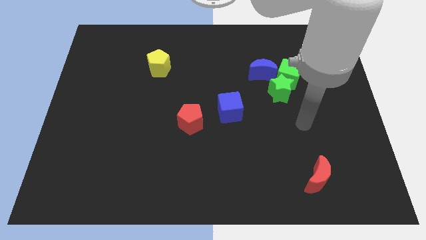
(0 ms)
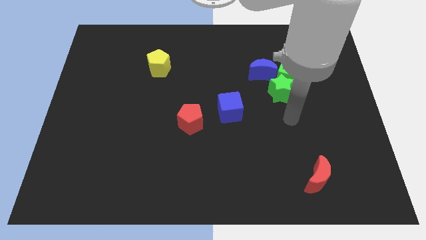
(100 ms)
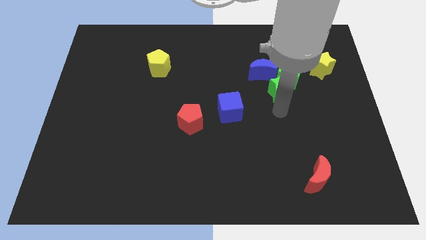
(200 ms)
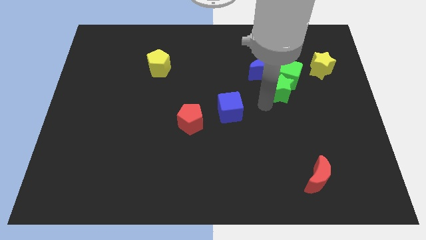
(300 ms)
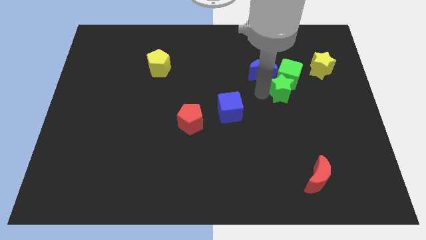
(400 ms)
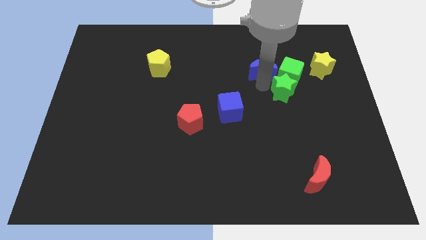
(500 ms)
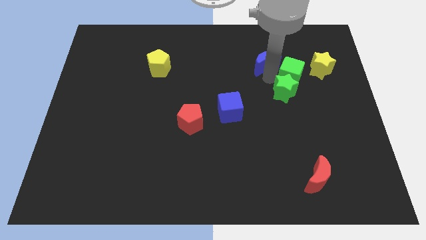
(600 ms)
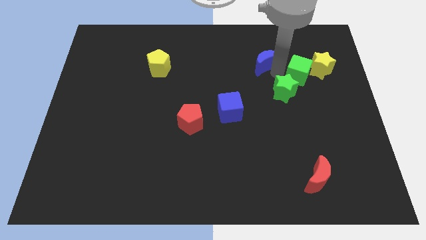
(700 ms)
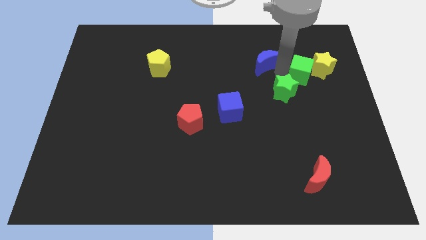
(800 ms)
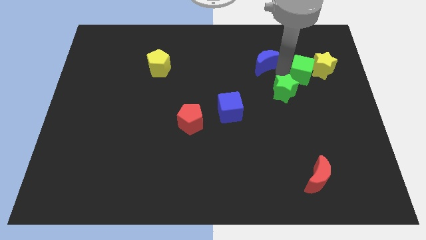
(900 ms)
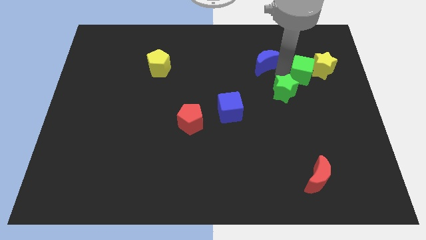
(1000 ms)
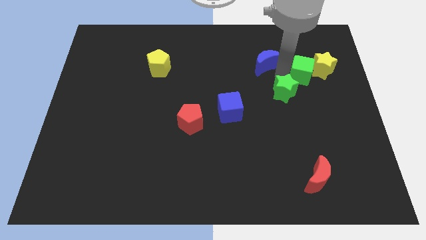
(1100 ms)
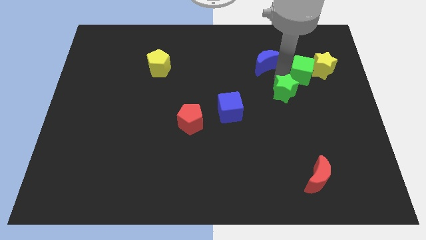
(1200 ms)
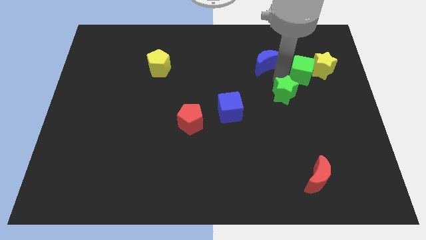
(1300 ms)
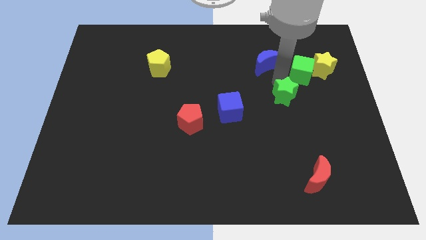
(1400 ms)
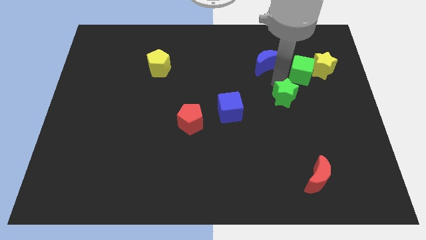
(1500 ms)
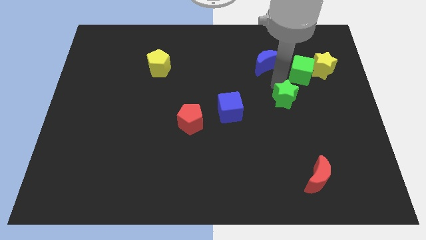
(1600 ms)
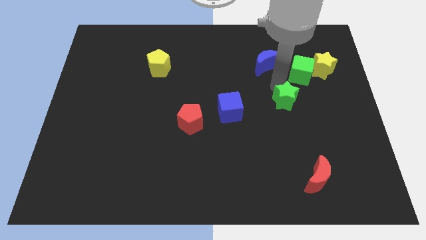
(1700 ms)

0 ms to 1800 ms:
pull the green star apart from the green cube and blue moon

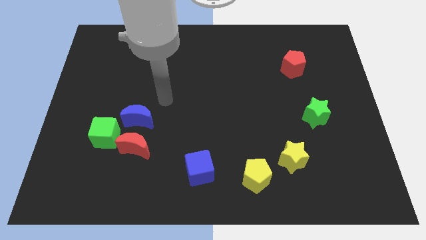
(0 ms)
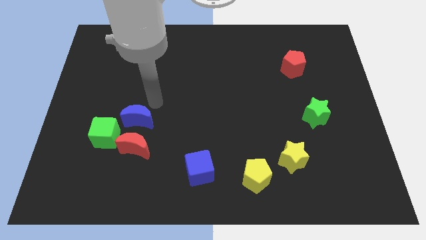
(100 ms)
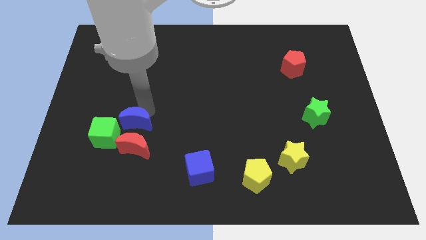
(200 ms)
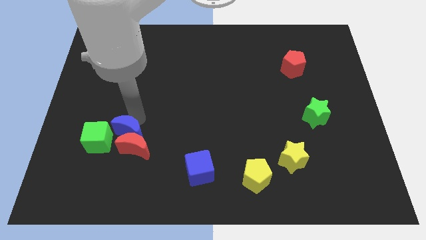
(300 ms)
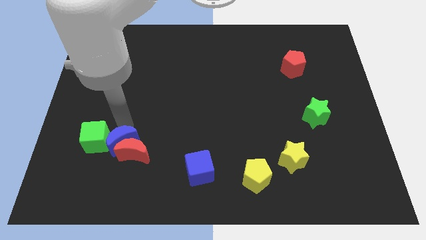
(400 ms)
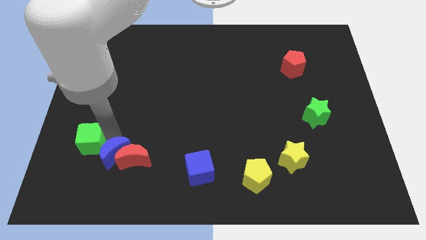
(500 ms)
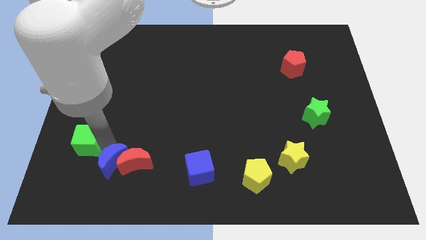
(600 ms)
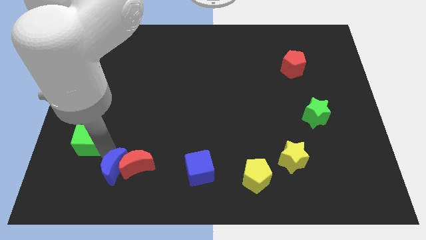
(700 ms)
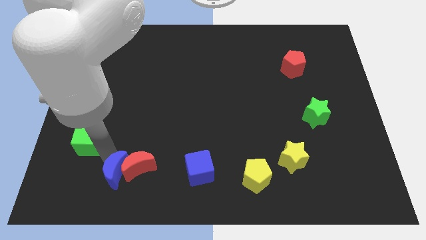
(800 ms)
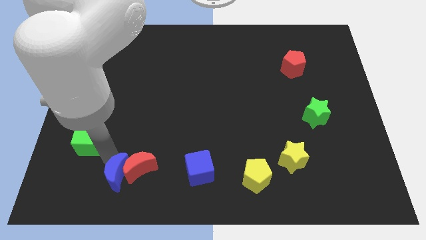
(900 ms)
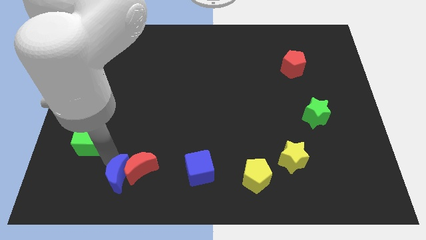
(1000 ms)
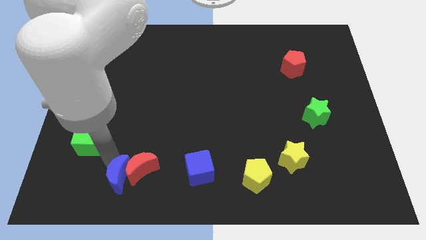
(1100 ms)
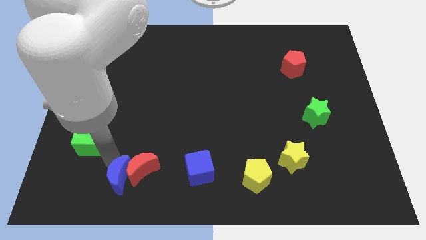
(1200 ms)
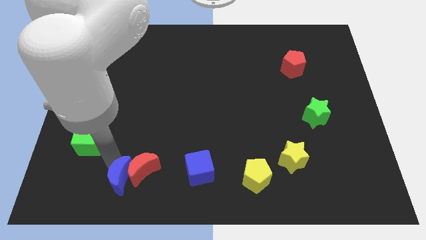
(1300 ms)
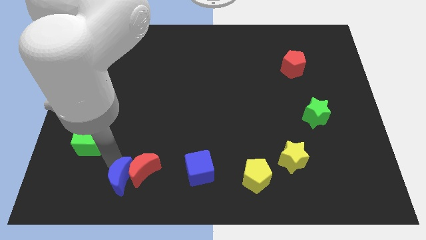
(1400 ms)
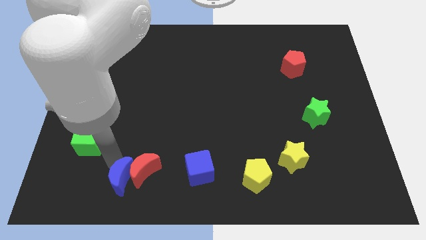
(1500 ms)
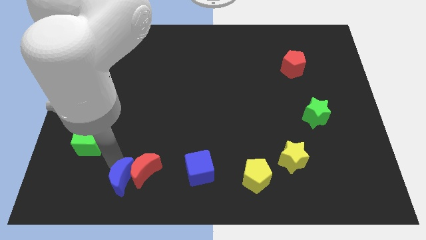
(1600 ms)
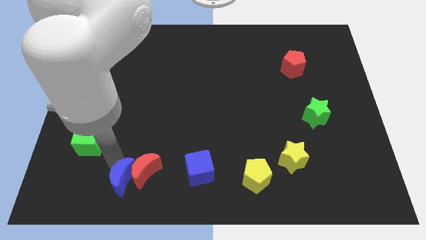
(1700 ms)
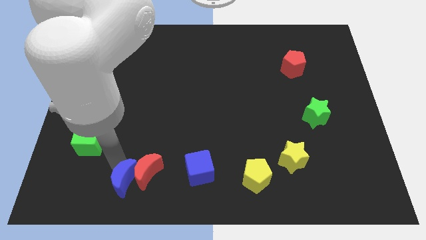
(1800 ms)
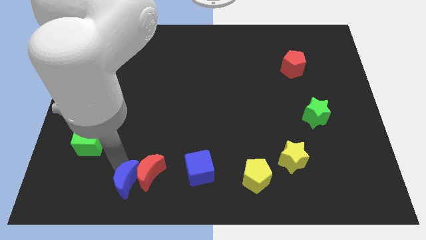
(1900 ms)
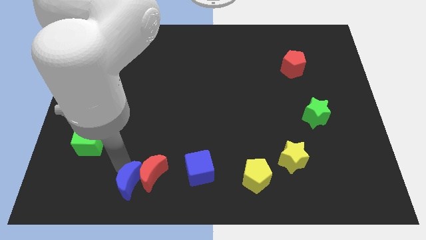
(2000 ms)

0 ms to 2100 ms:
pull the red moon apart from the blue moon and green cube

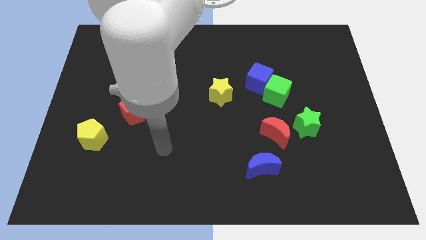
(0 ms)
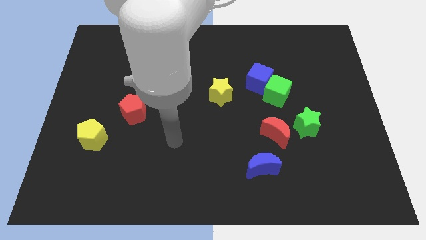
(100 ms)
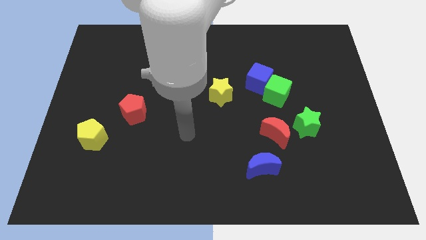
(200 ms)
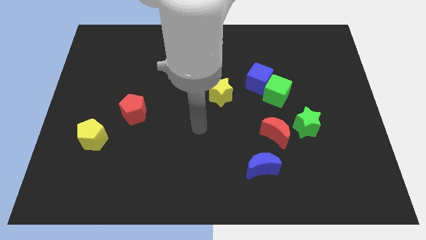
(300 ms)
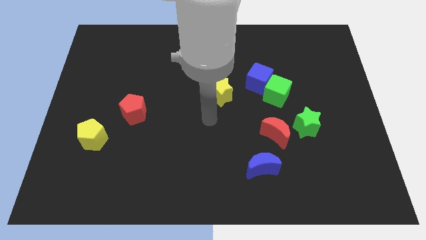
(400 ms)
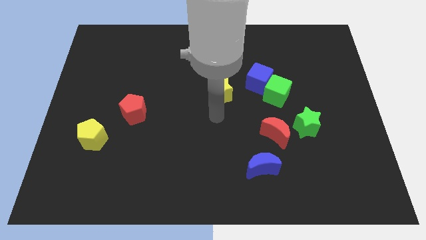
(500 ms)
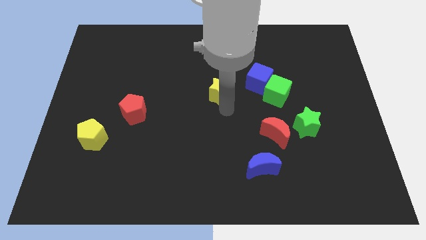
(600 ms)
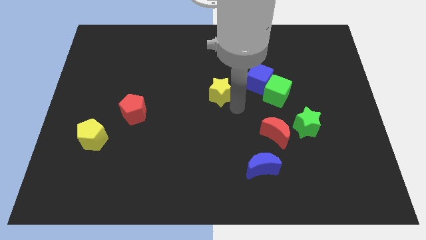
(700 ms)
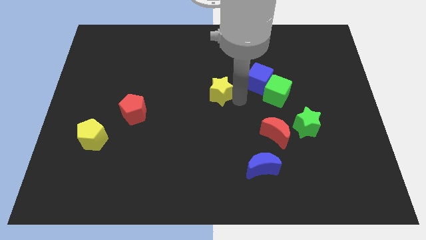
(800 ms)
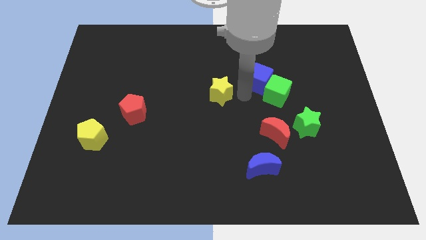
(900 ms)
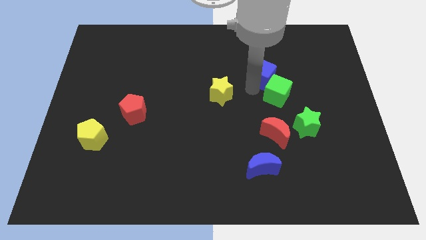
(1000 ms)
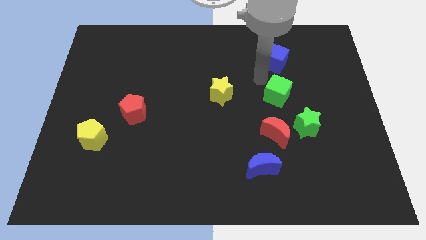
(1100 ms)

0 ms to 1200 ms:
pull the green cube apart from the blue cube

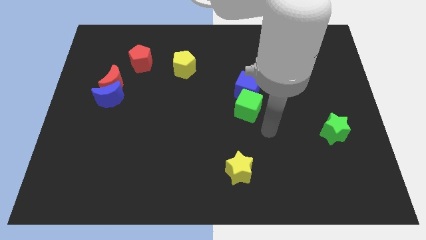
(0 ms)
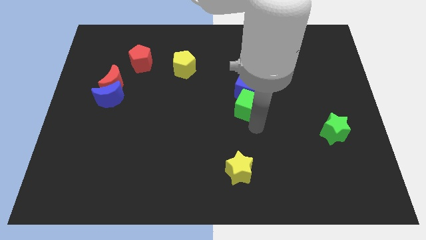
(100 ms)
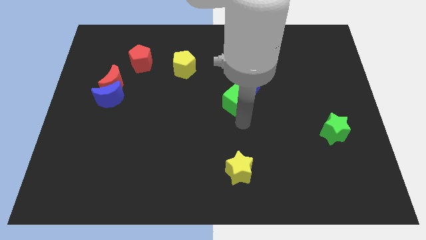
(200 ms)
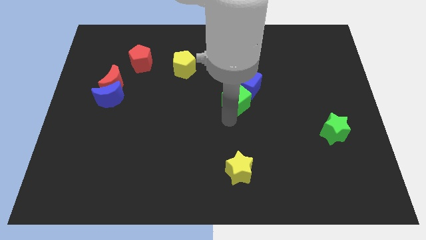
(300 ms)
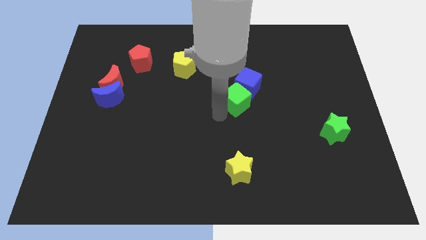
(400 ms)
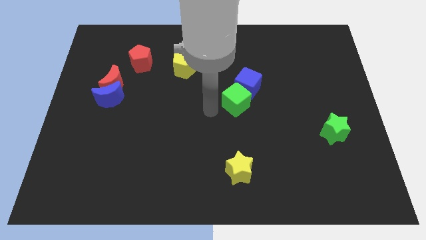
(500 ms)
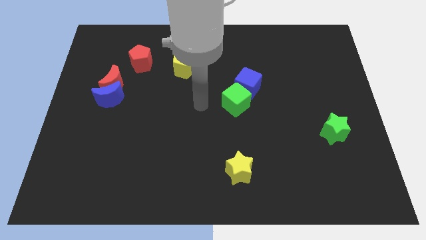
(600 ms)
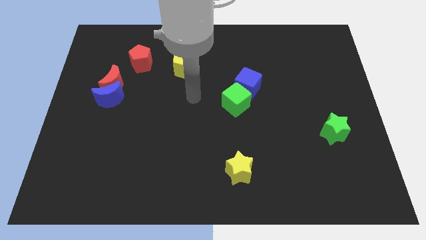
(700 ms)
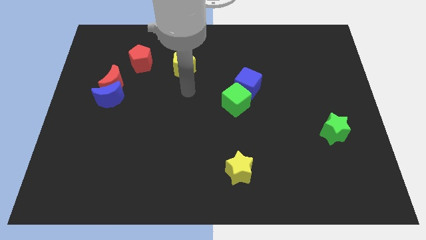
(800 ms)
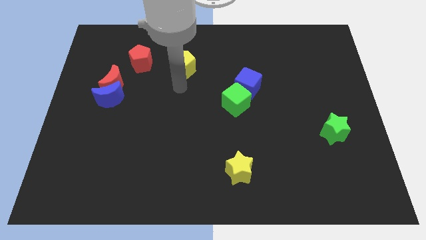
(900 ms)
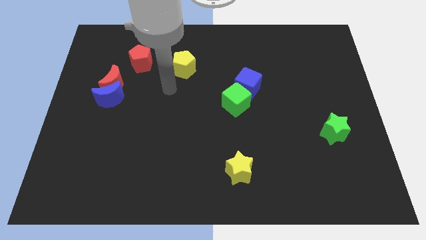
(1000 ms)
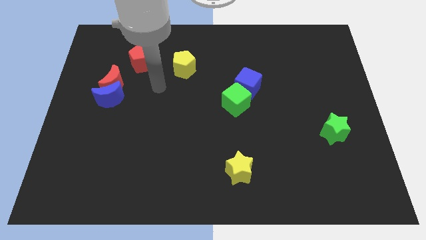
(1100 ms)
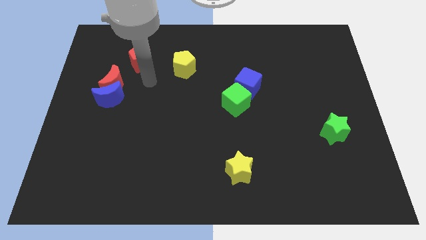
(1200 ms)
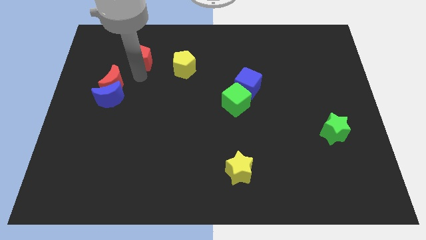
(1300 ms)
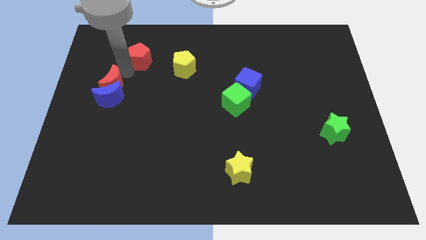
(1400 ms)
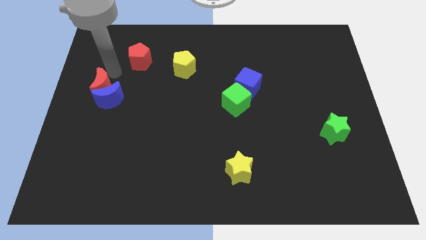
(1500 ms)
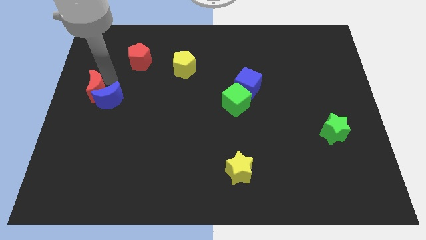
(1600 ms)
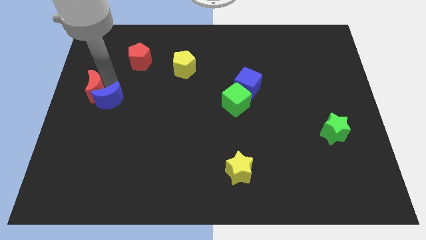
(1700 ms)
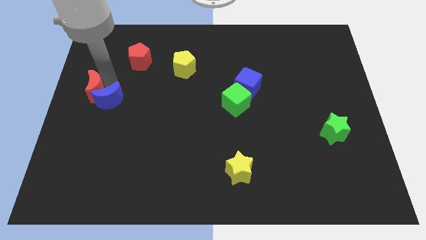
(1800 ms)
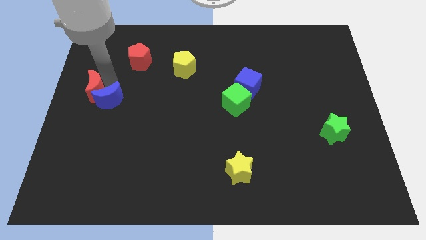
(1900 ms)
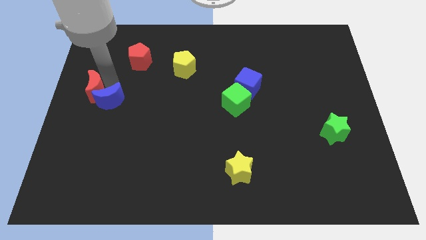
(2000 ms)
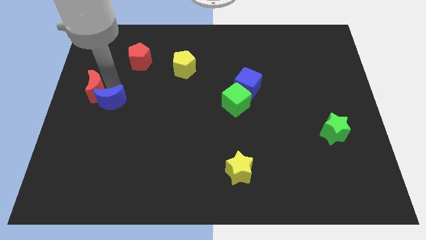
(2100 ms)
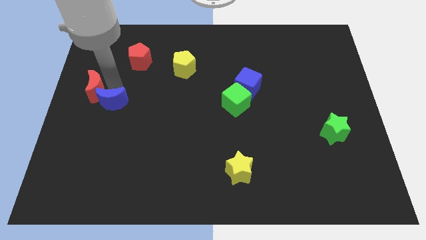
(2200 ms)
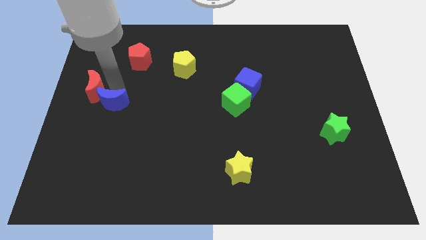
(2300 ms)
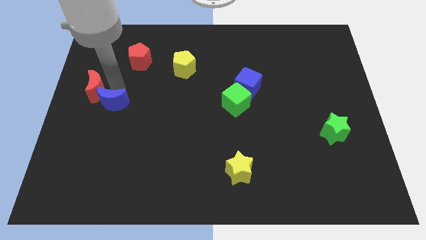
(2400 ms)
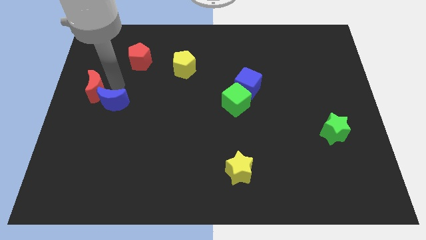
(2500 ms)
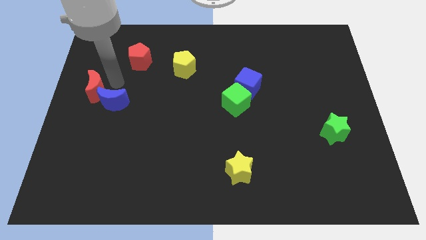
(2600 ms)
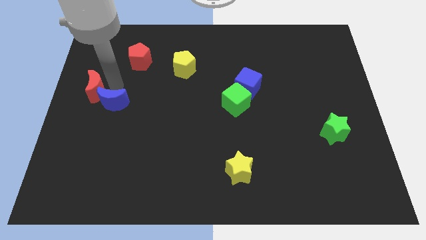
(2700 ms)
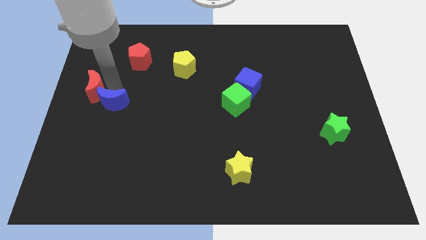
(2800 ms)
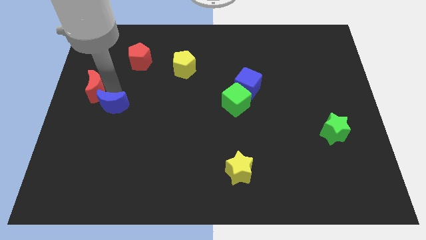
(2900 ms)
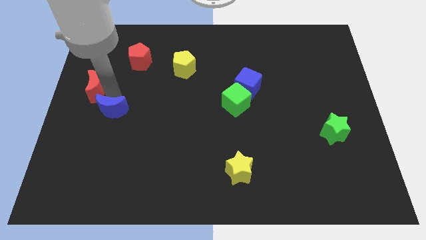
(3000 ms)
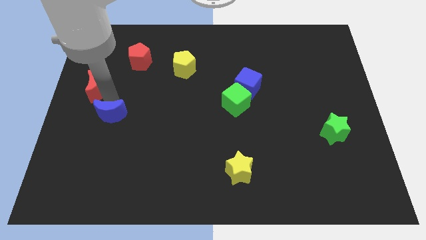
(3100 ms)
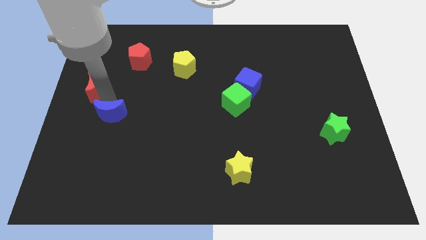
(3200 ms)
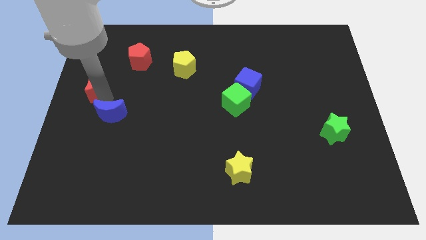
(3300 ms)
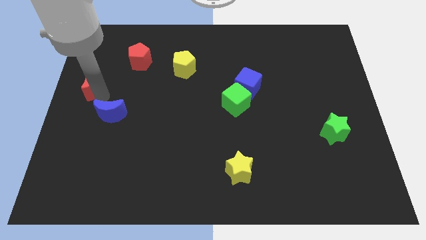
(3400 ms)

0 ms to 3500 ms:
pull the blue moon apart from the red moon

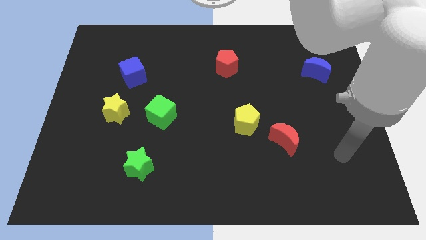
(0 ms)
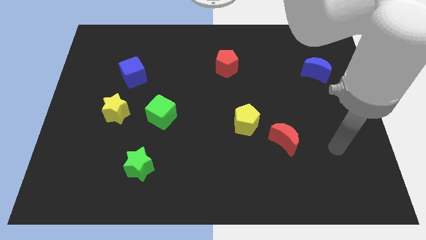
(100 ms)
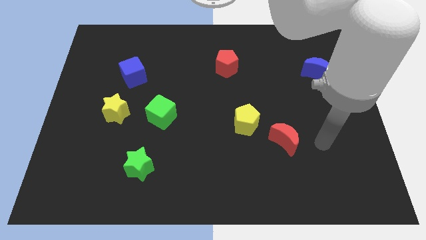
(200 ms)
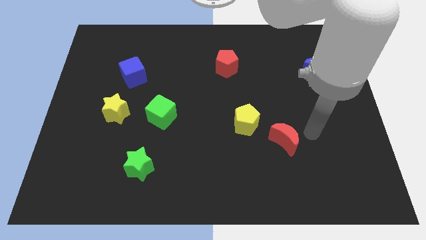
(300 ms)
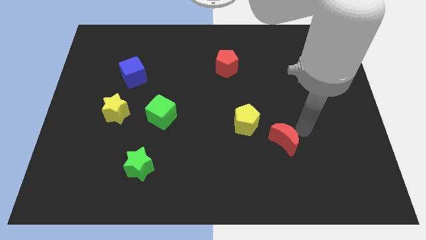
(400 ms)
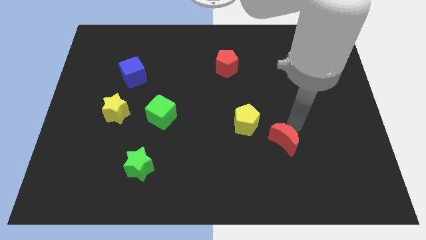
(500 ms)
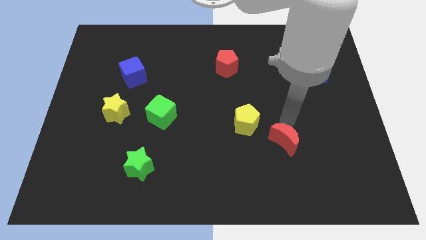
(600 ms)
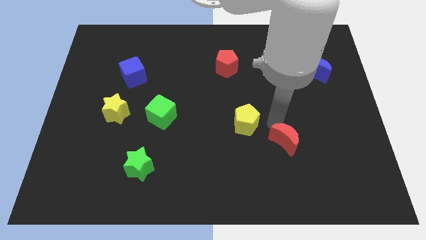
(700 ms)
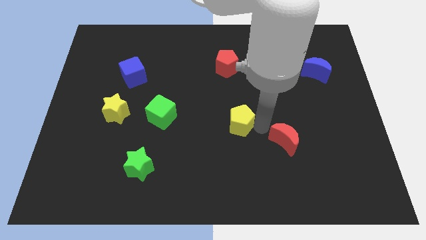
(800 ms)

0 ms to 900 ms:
pull the red moon apart from the yellow pentagon
